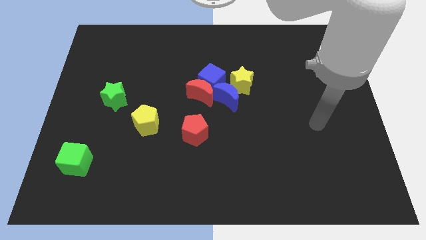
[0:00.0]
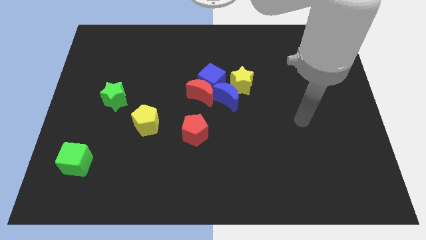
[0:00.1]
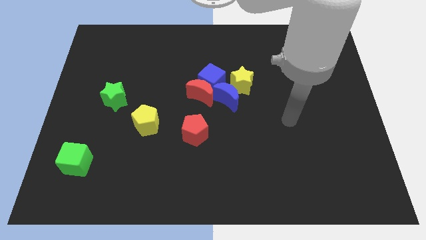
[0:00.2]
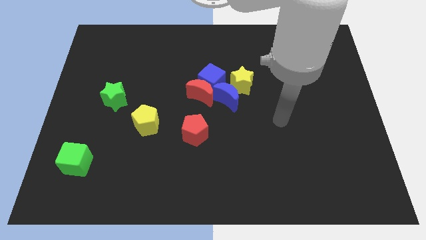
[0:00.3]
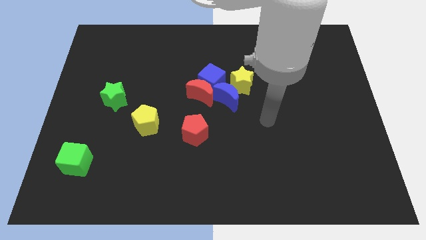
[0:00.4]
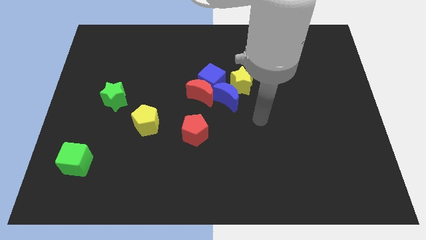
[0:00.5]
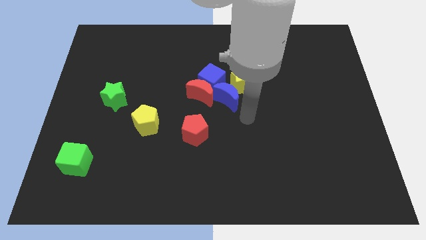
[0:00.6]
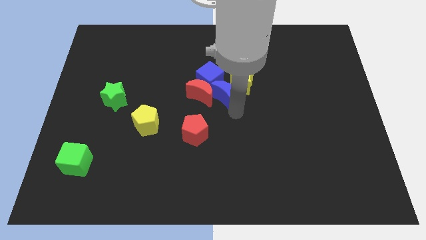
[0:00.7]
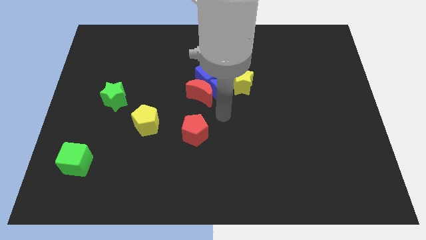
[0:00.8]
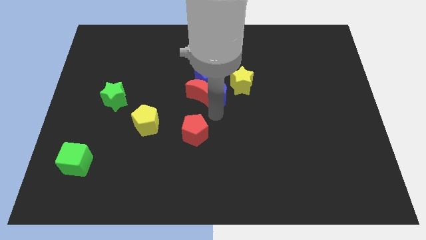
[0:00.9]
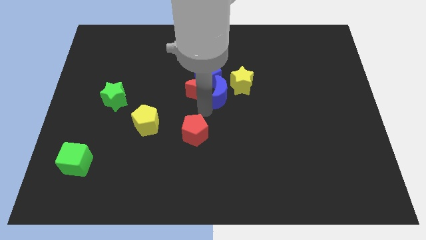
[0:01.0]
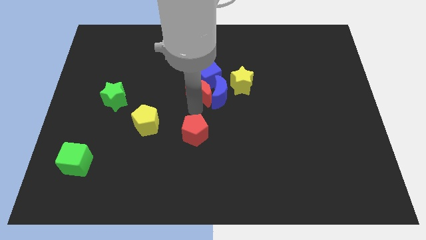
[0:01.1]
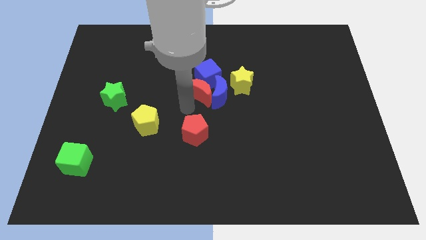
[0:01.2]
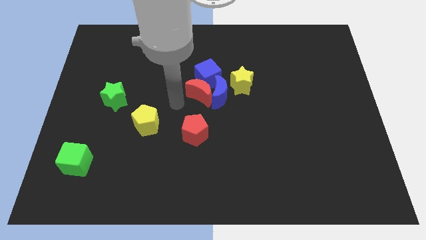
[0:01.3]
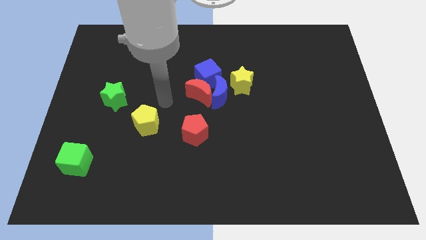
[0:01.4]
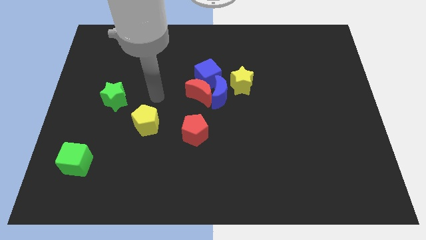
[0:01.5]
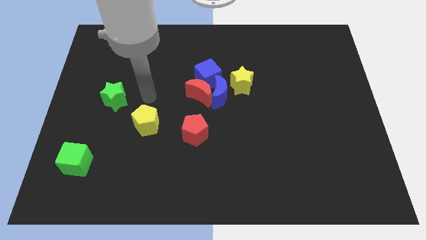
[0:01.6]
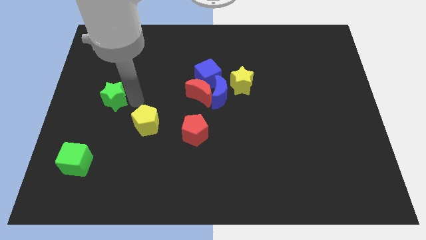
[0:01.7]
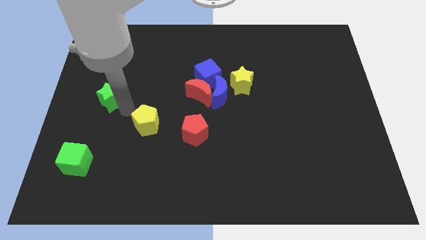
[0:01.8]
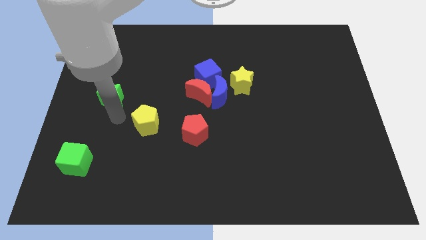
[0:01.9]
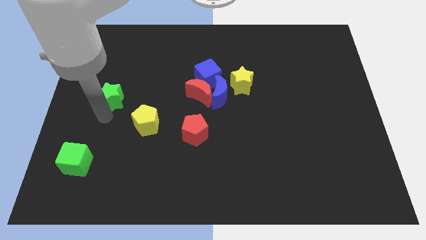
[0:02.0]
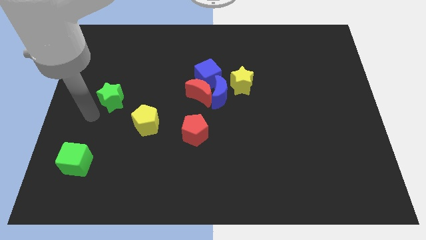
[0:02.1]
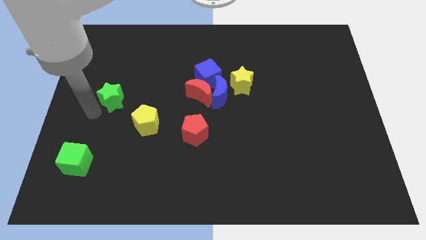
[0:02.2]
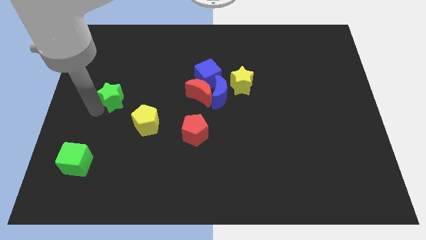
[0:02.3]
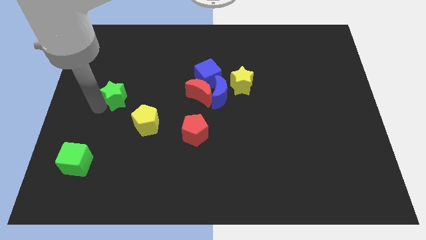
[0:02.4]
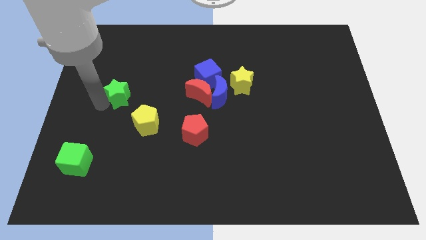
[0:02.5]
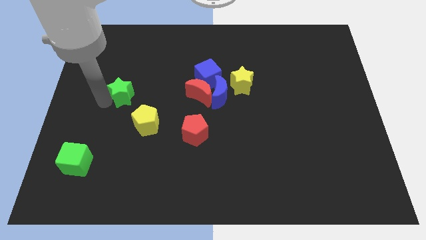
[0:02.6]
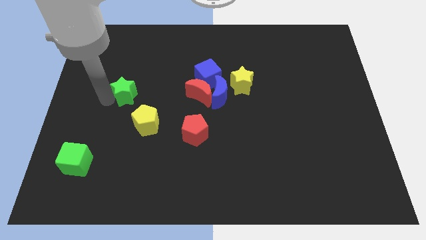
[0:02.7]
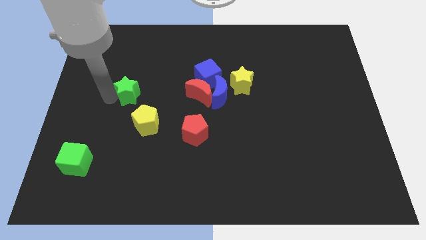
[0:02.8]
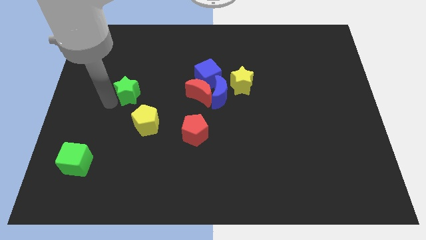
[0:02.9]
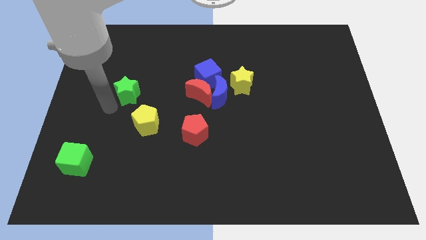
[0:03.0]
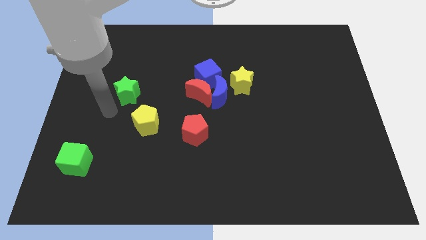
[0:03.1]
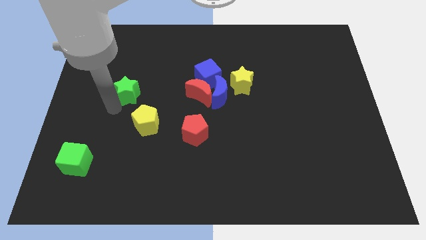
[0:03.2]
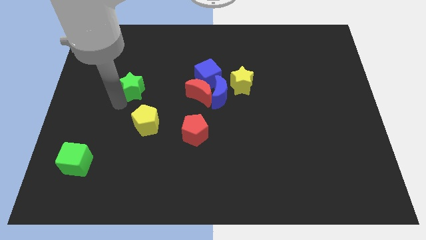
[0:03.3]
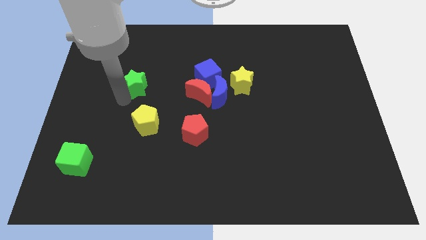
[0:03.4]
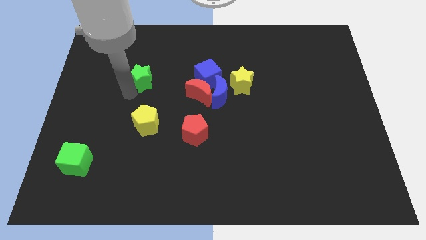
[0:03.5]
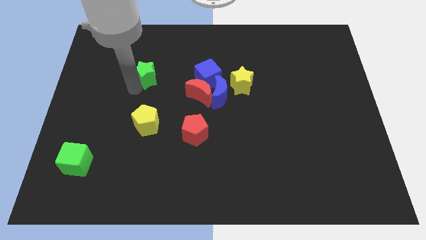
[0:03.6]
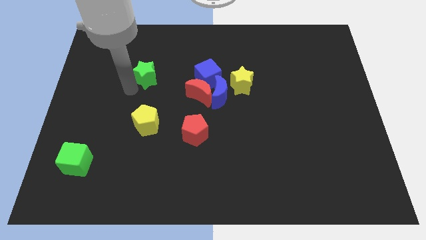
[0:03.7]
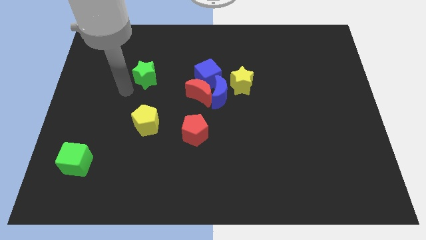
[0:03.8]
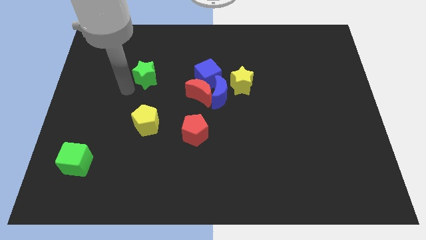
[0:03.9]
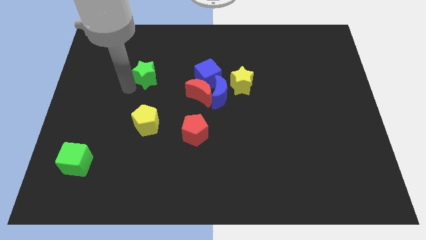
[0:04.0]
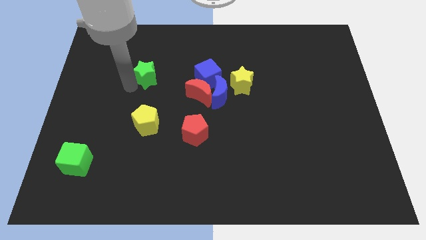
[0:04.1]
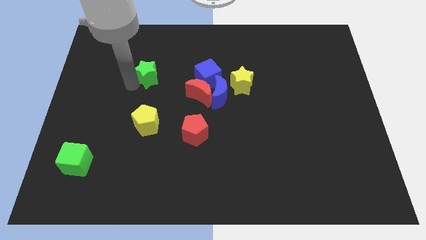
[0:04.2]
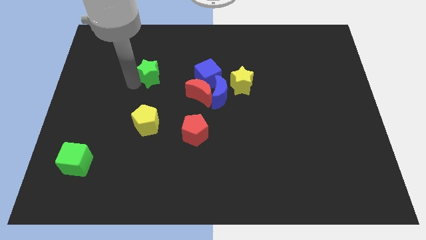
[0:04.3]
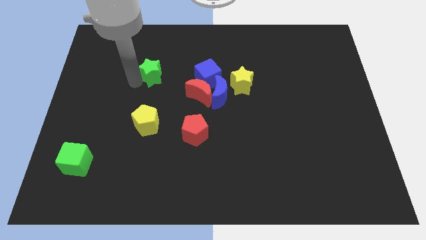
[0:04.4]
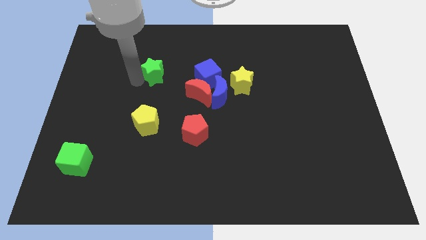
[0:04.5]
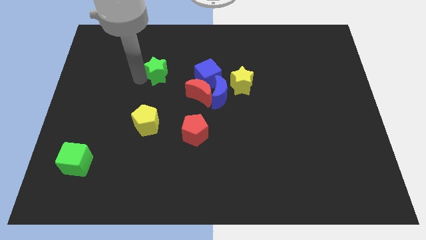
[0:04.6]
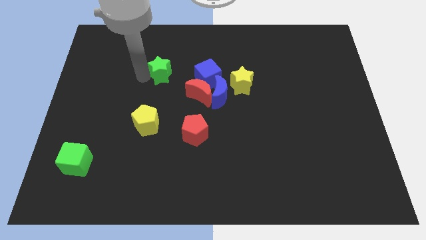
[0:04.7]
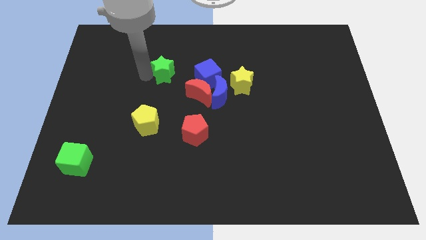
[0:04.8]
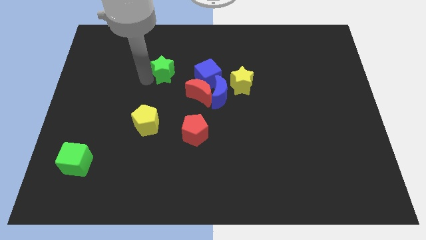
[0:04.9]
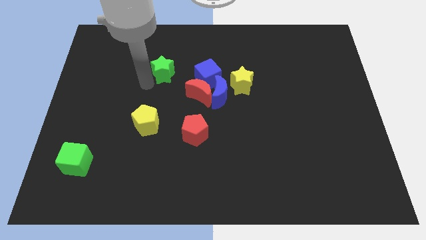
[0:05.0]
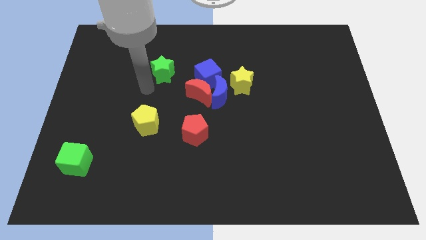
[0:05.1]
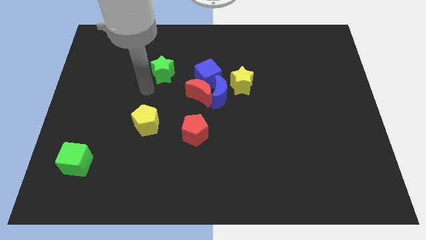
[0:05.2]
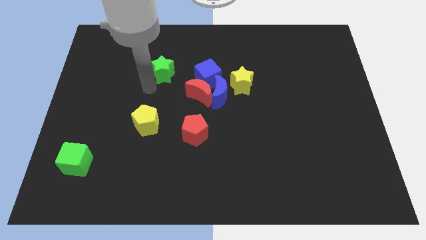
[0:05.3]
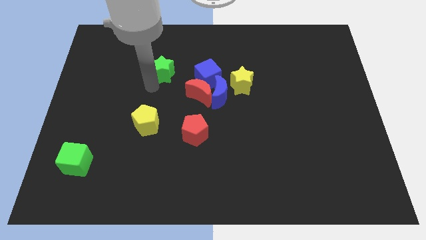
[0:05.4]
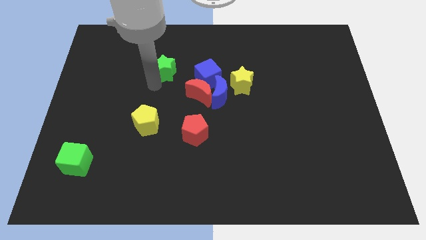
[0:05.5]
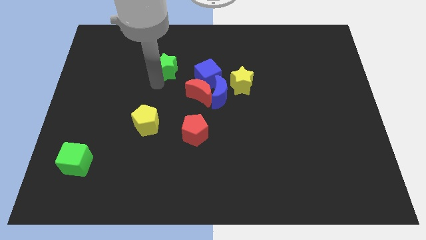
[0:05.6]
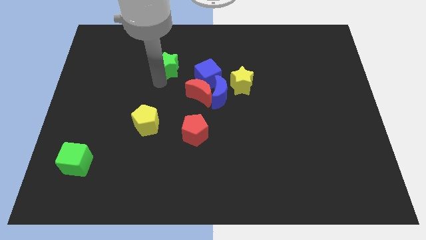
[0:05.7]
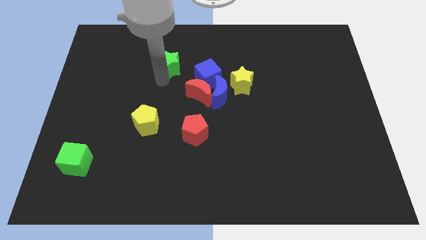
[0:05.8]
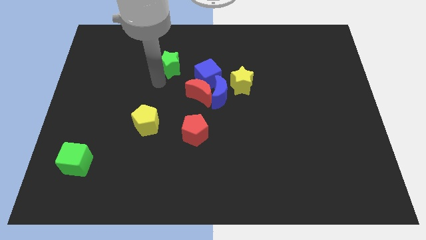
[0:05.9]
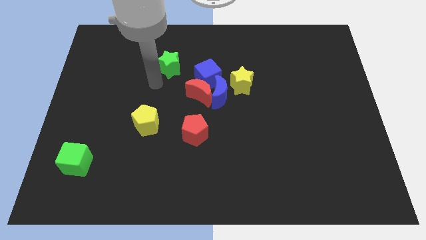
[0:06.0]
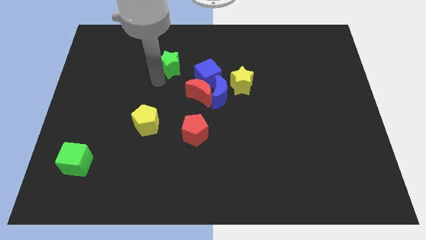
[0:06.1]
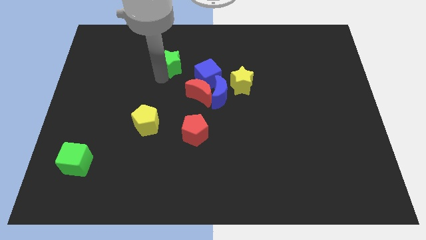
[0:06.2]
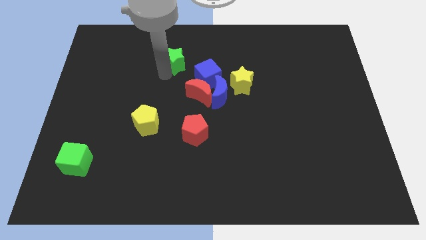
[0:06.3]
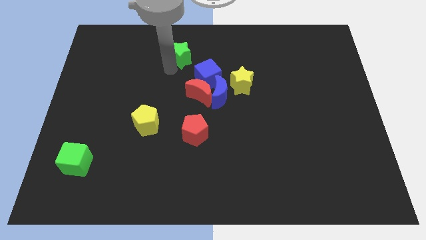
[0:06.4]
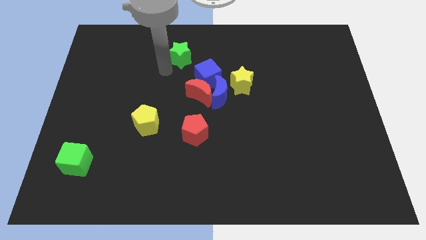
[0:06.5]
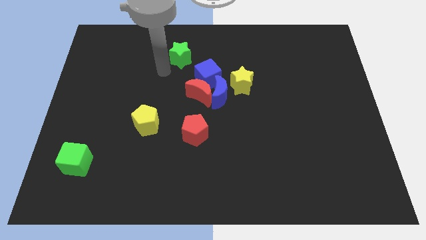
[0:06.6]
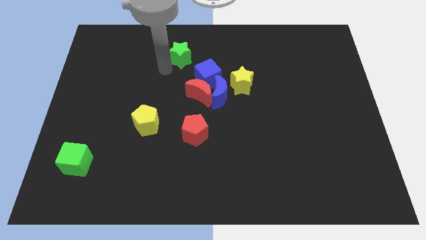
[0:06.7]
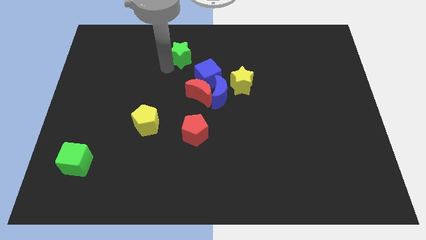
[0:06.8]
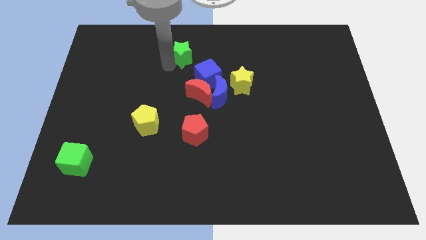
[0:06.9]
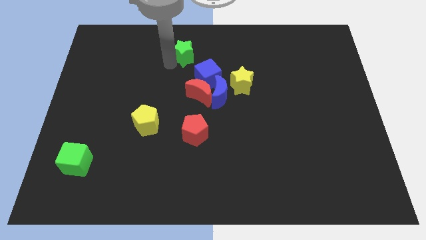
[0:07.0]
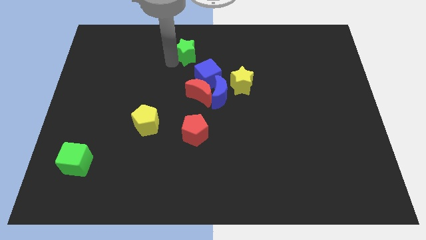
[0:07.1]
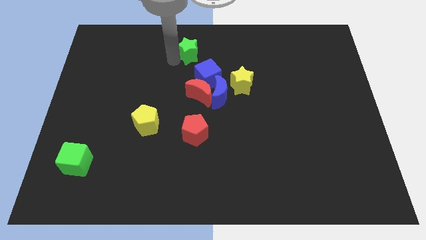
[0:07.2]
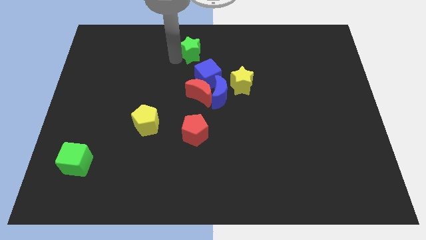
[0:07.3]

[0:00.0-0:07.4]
put the green star to the top
